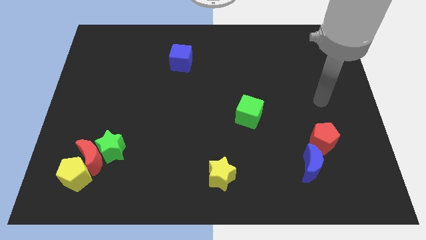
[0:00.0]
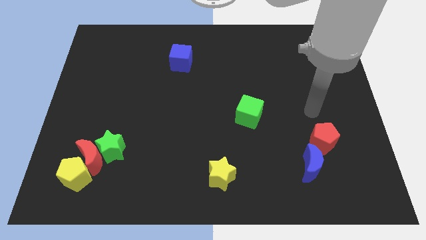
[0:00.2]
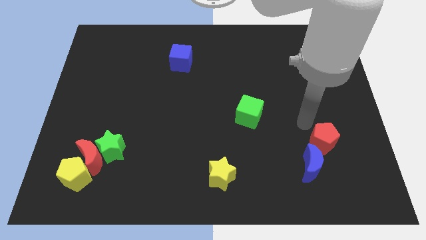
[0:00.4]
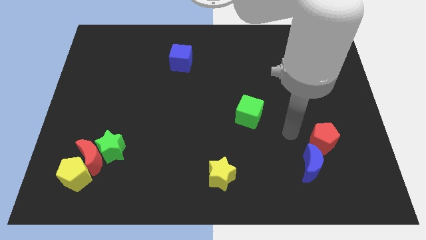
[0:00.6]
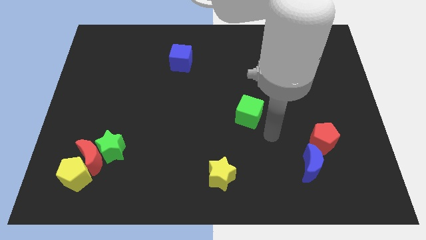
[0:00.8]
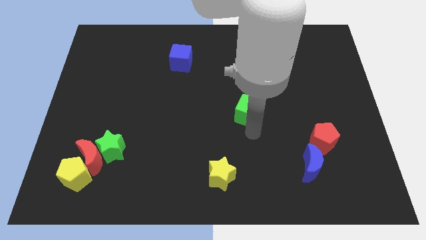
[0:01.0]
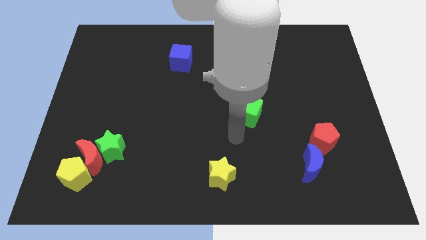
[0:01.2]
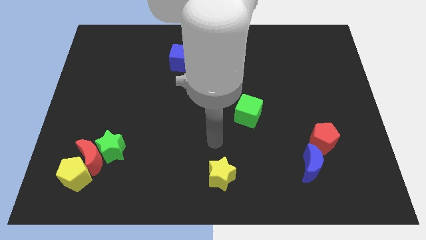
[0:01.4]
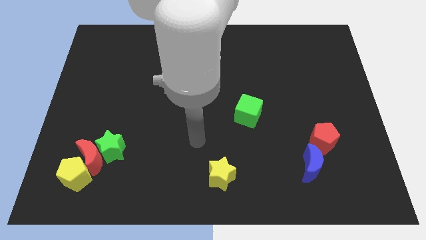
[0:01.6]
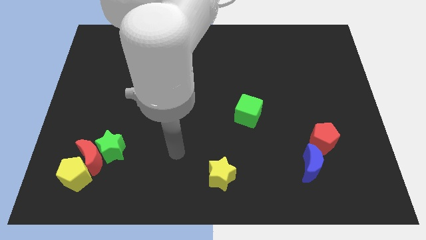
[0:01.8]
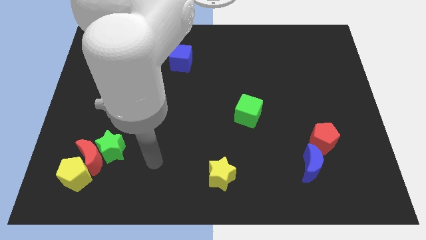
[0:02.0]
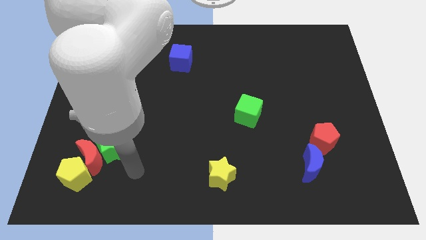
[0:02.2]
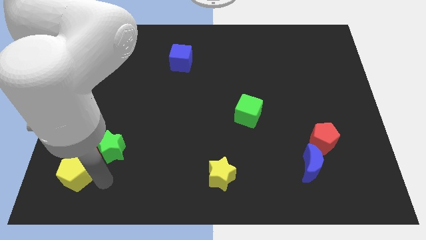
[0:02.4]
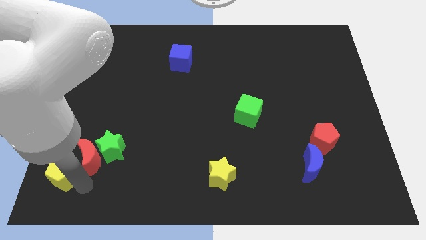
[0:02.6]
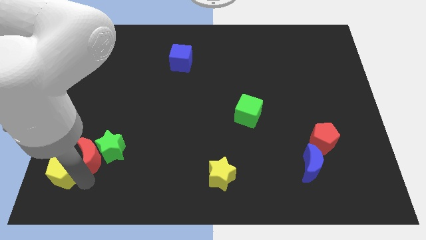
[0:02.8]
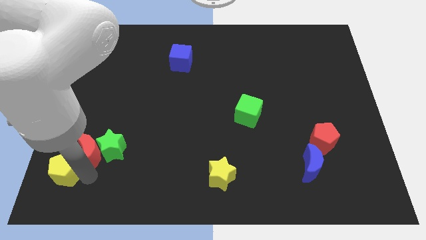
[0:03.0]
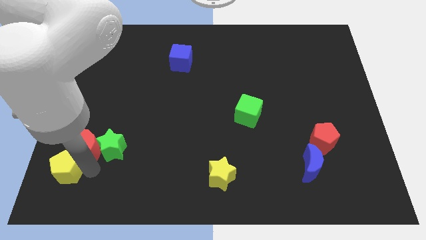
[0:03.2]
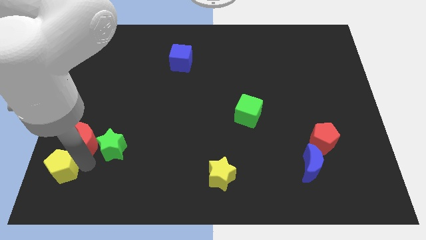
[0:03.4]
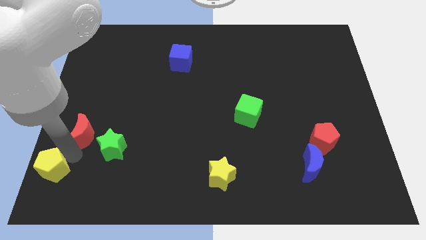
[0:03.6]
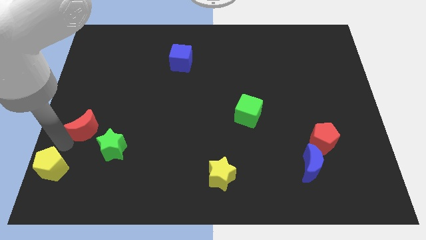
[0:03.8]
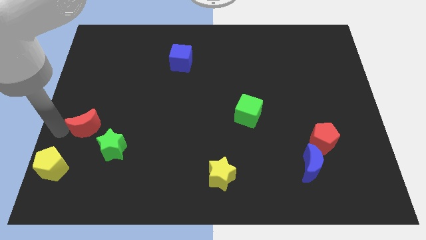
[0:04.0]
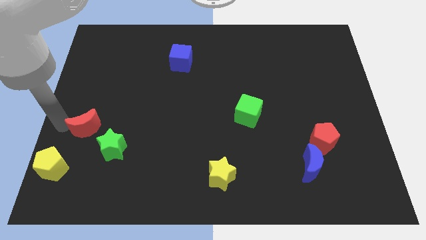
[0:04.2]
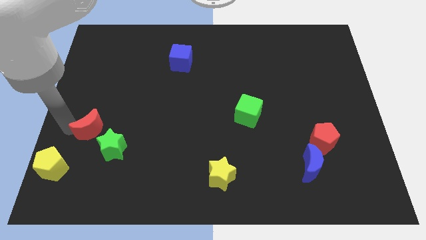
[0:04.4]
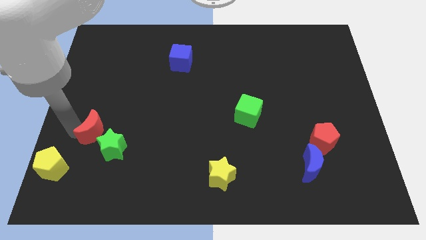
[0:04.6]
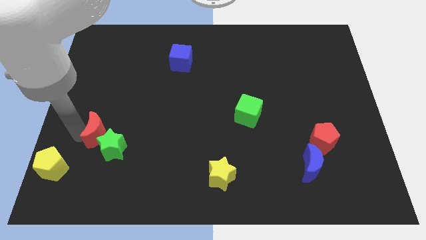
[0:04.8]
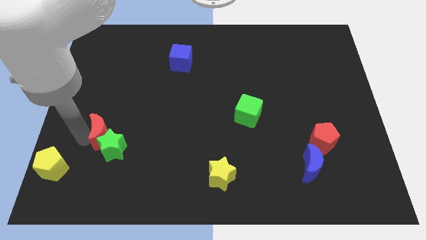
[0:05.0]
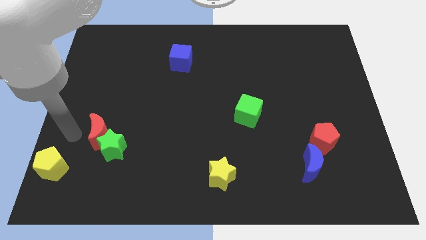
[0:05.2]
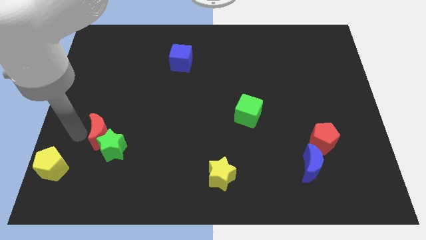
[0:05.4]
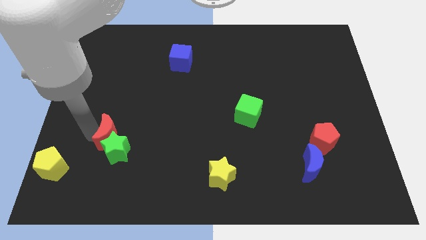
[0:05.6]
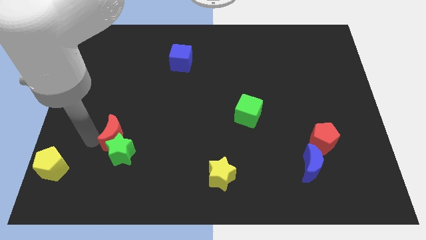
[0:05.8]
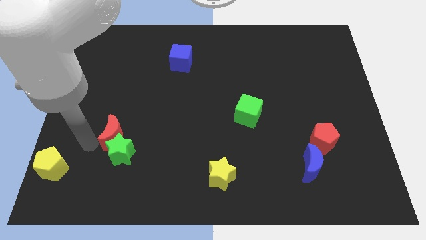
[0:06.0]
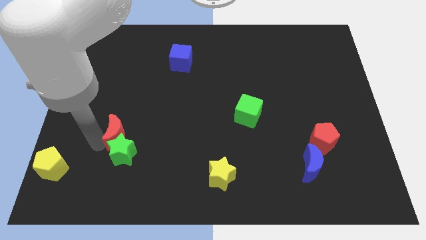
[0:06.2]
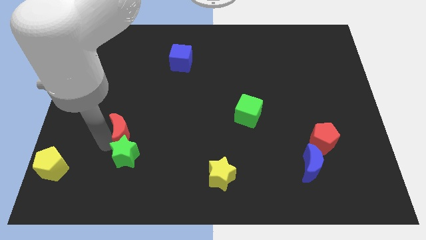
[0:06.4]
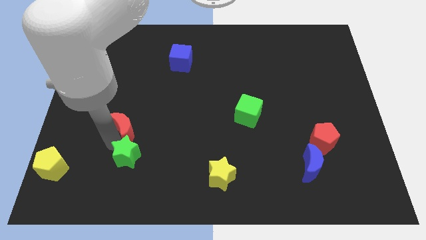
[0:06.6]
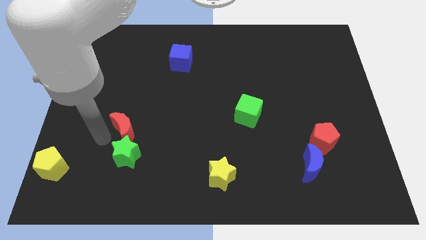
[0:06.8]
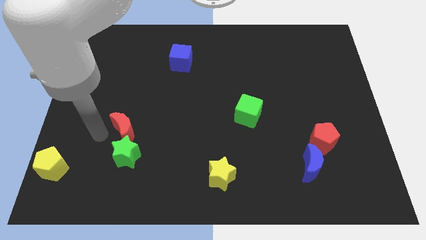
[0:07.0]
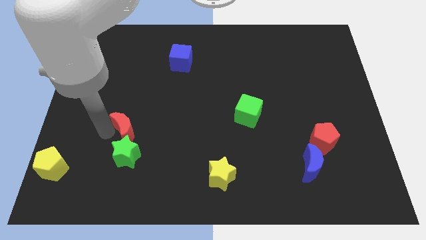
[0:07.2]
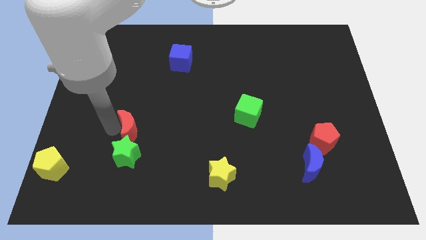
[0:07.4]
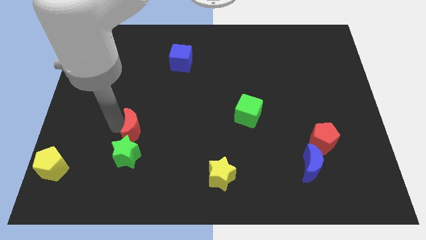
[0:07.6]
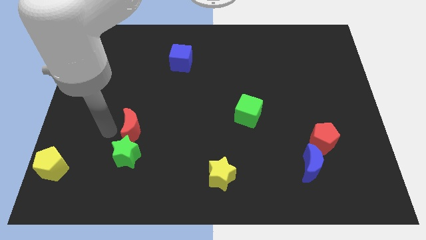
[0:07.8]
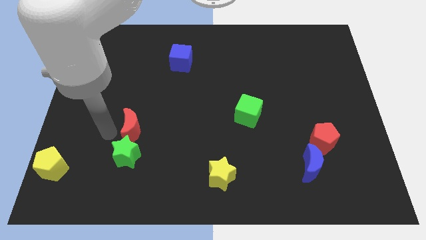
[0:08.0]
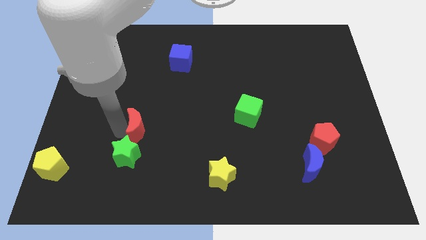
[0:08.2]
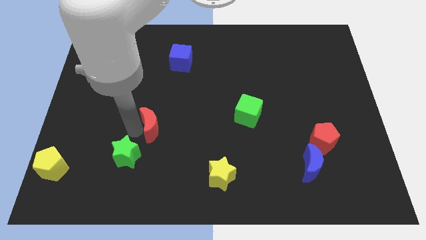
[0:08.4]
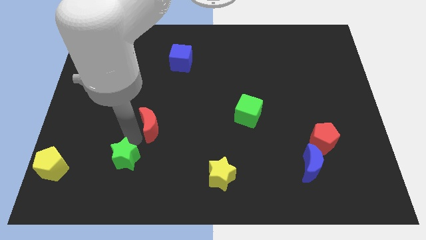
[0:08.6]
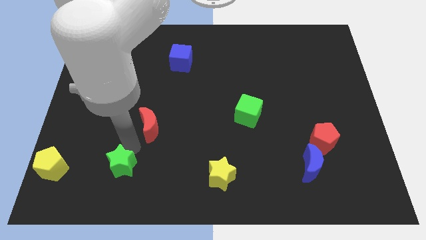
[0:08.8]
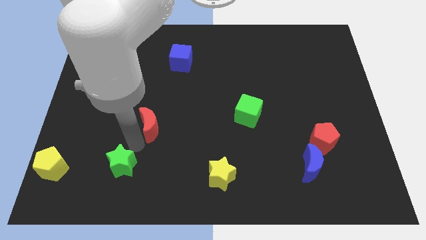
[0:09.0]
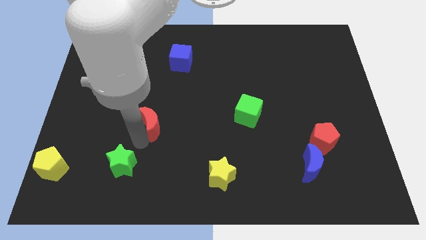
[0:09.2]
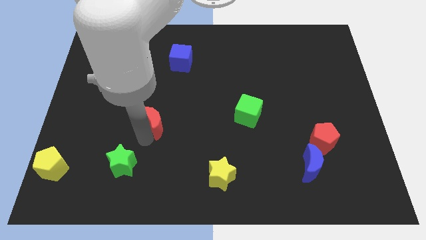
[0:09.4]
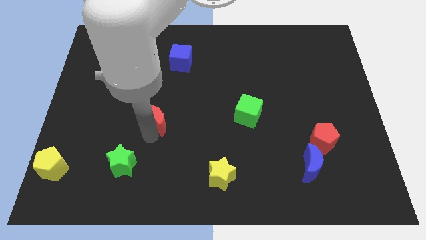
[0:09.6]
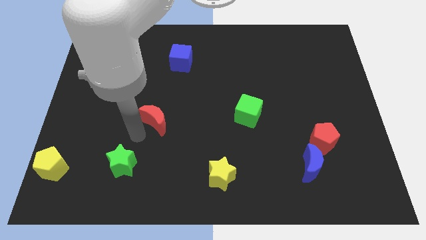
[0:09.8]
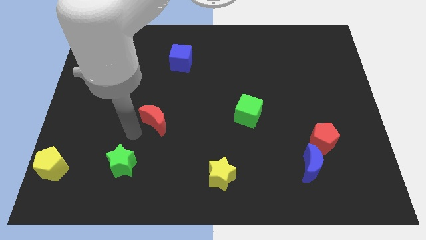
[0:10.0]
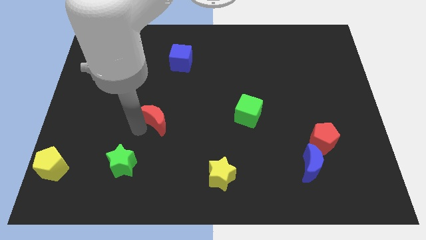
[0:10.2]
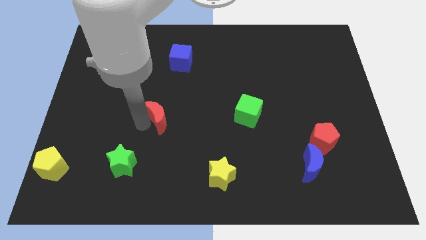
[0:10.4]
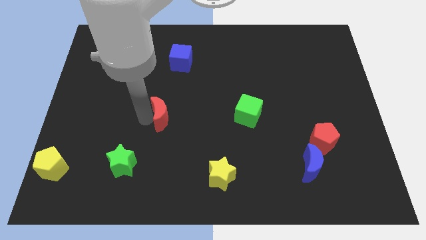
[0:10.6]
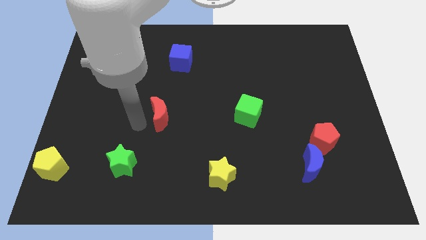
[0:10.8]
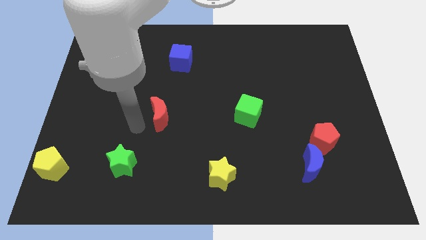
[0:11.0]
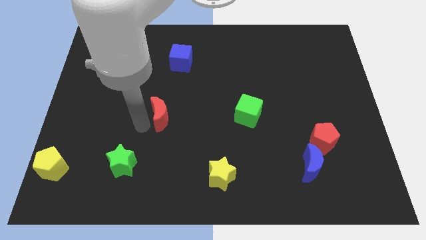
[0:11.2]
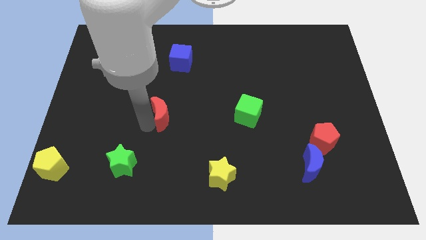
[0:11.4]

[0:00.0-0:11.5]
put the red moon to the middle of the board

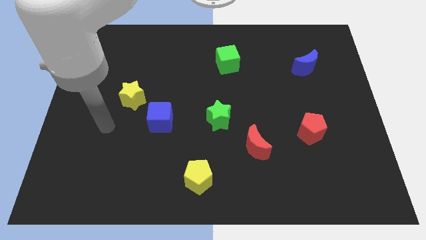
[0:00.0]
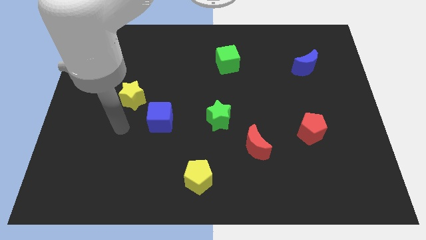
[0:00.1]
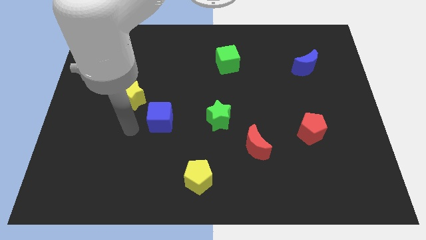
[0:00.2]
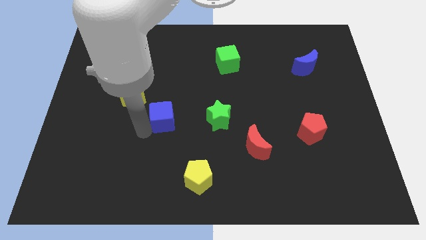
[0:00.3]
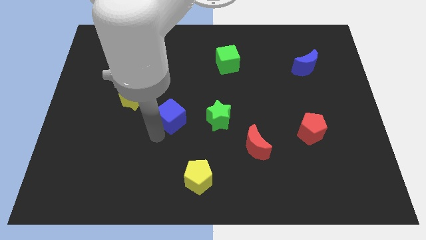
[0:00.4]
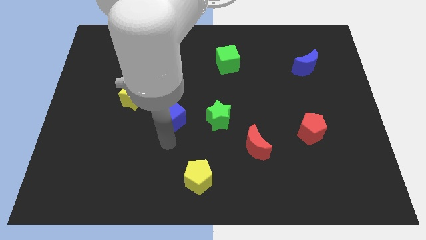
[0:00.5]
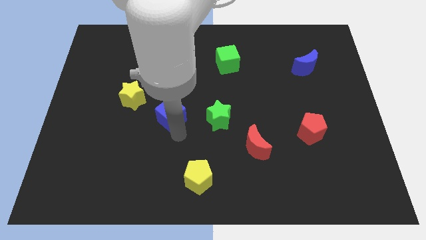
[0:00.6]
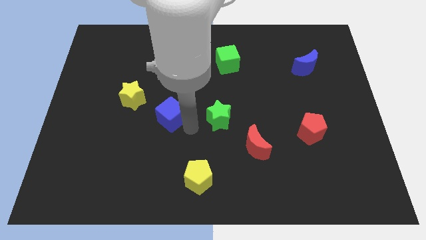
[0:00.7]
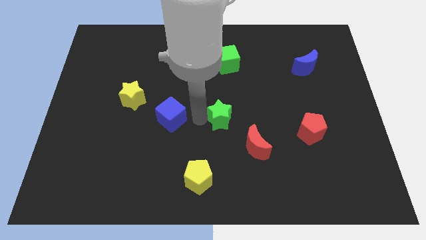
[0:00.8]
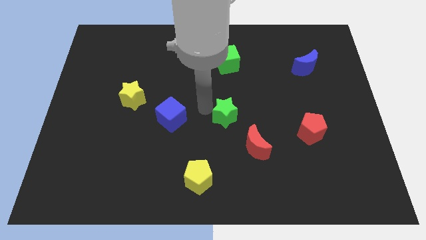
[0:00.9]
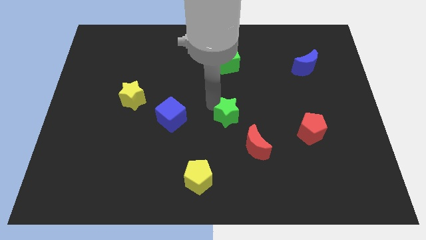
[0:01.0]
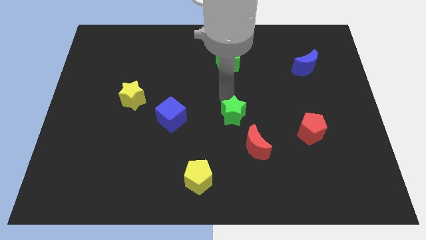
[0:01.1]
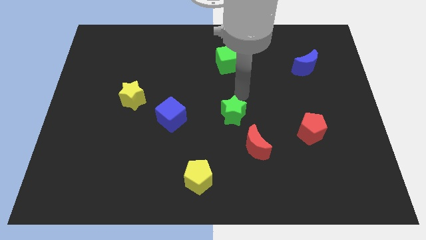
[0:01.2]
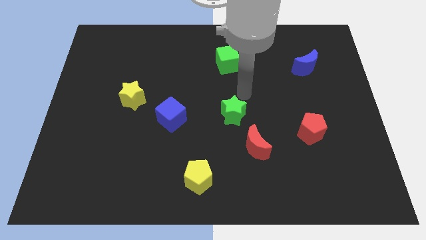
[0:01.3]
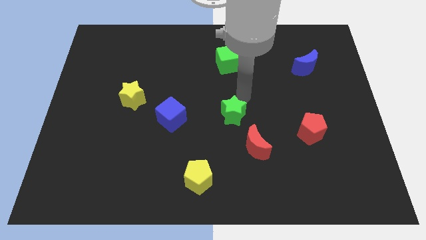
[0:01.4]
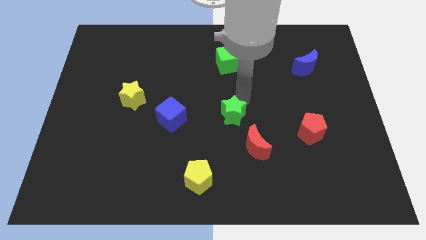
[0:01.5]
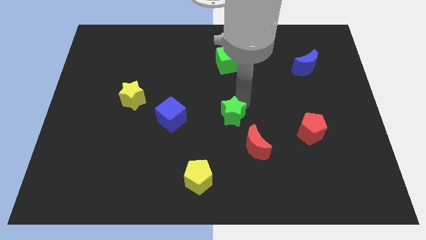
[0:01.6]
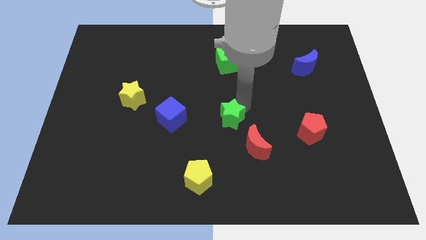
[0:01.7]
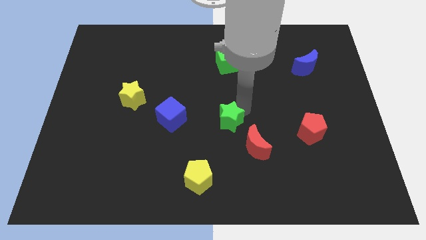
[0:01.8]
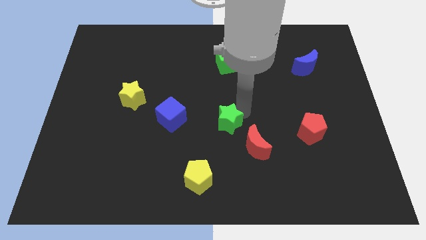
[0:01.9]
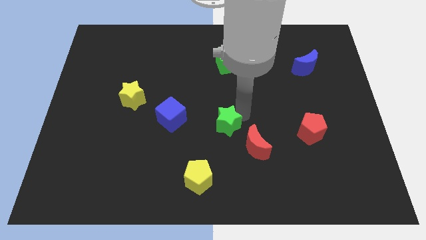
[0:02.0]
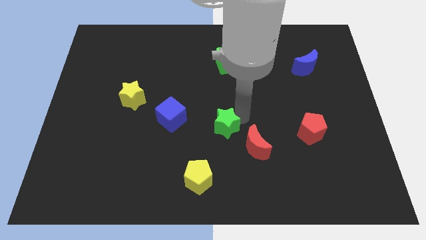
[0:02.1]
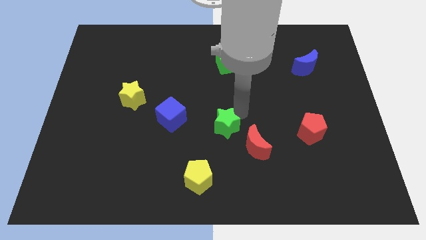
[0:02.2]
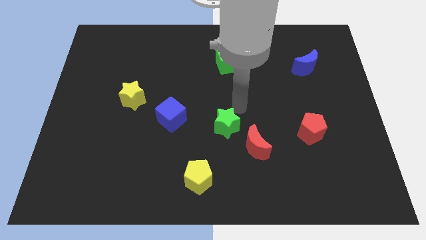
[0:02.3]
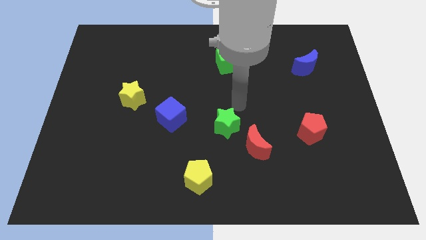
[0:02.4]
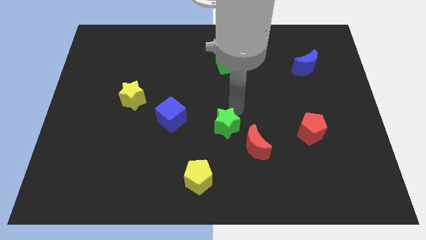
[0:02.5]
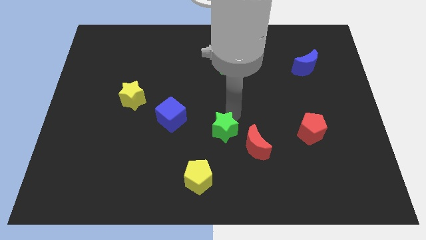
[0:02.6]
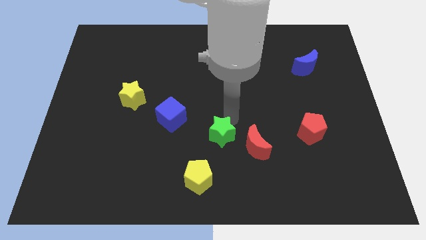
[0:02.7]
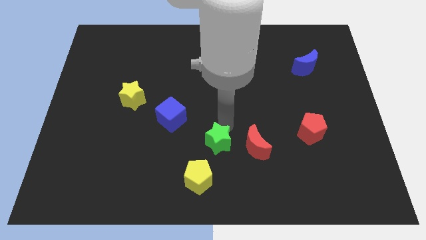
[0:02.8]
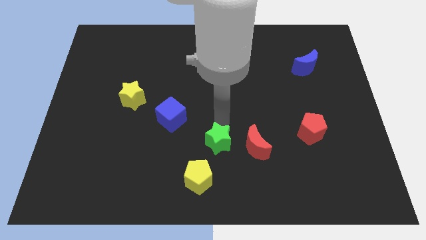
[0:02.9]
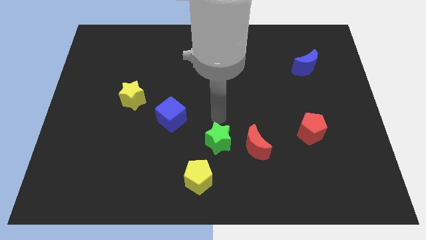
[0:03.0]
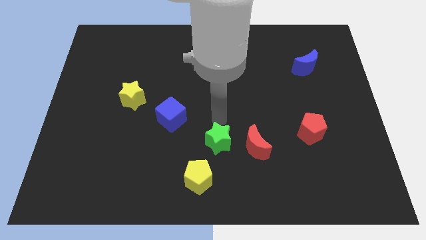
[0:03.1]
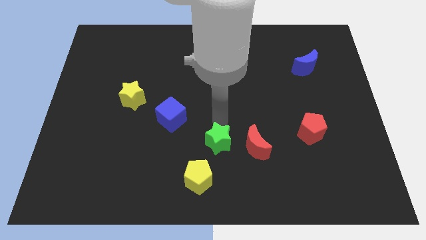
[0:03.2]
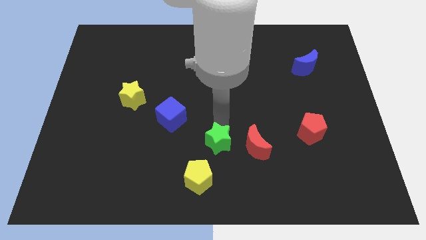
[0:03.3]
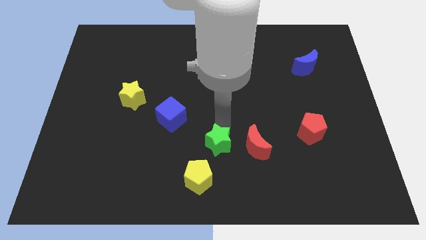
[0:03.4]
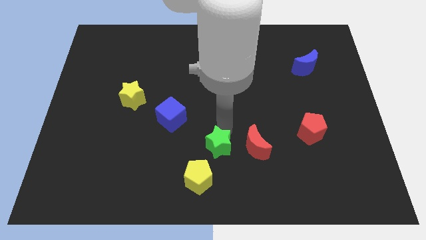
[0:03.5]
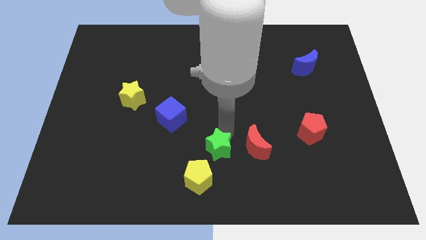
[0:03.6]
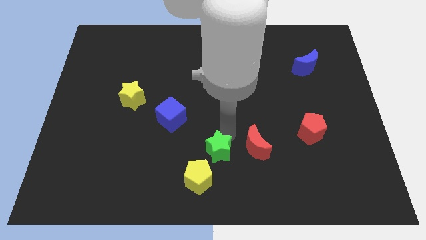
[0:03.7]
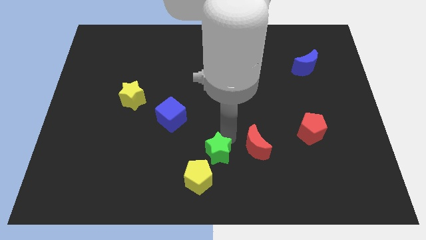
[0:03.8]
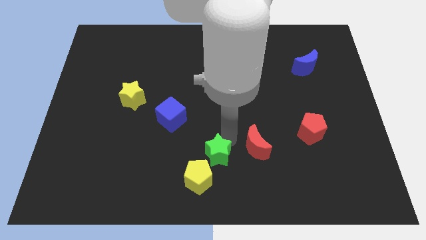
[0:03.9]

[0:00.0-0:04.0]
push the green star to the bottom
